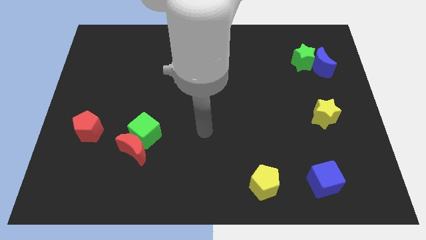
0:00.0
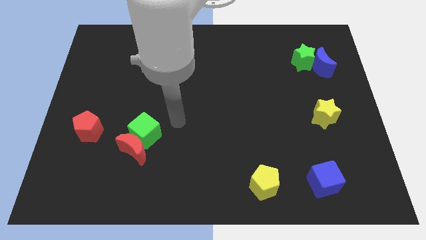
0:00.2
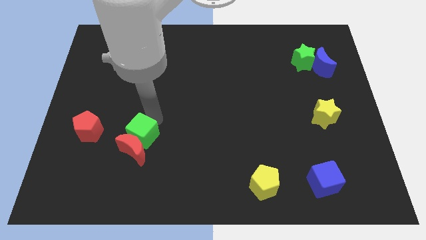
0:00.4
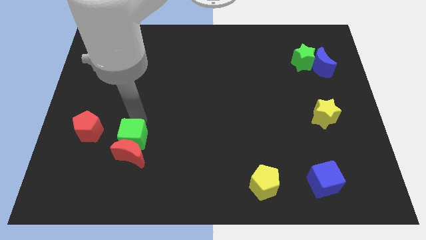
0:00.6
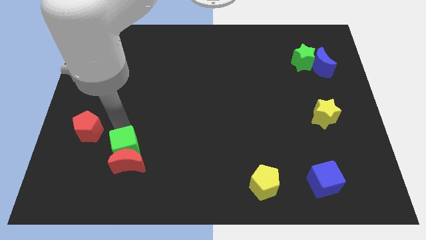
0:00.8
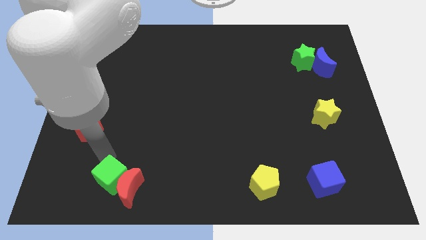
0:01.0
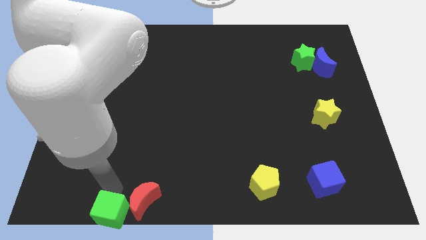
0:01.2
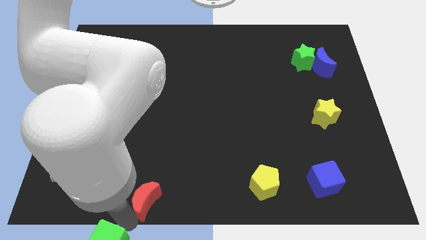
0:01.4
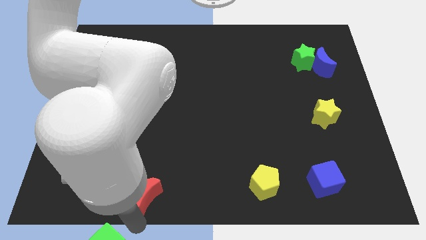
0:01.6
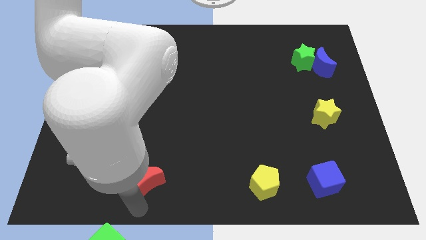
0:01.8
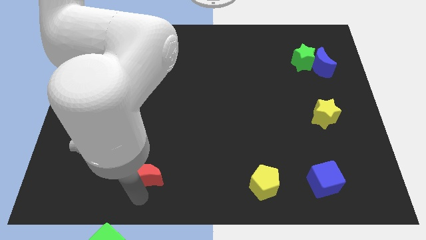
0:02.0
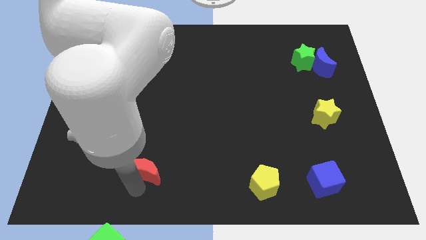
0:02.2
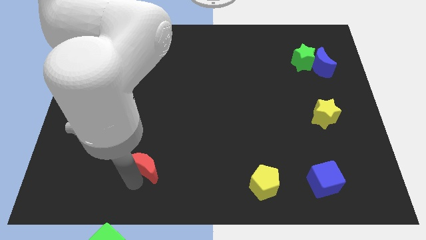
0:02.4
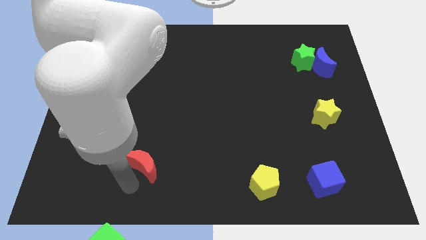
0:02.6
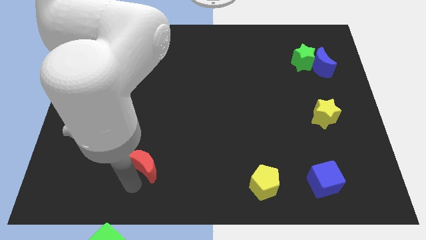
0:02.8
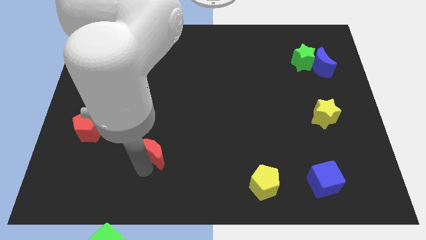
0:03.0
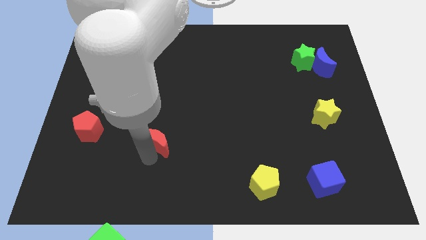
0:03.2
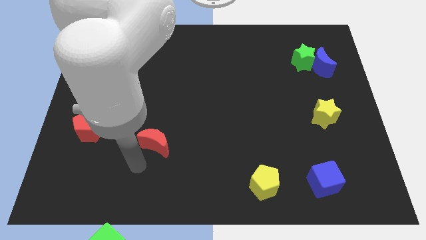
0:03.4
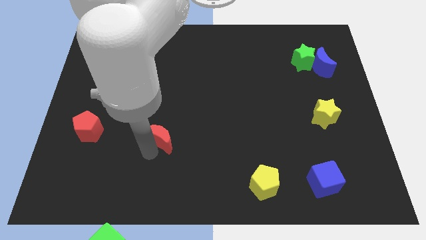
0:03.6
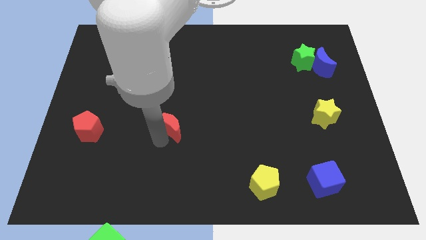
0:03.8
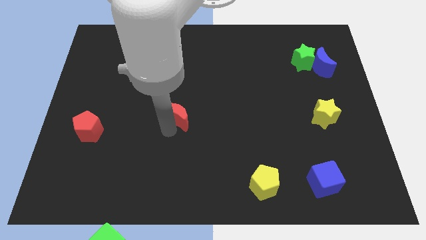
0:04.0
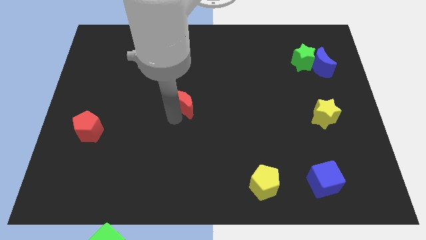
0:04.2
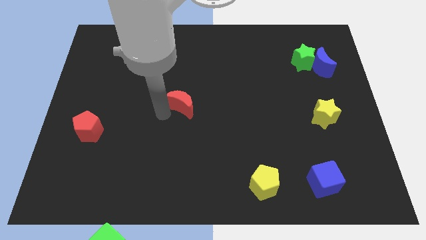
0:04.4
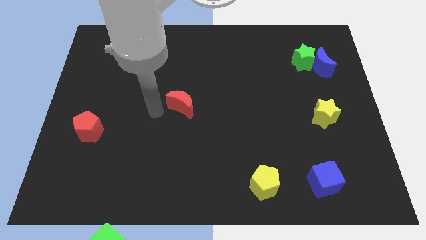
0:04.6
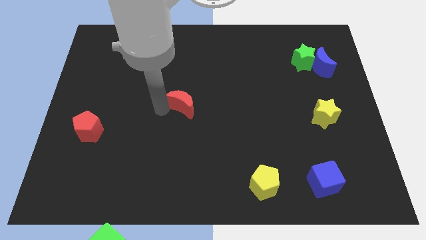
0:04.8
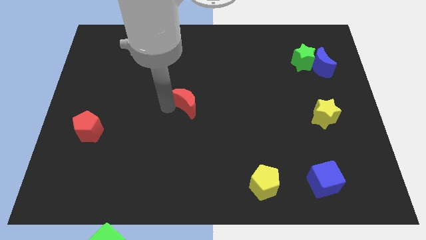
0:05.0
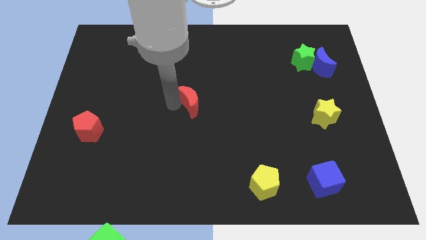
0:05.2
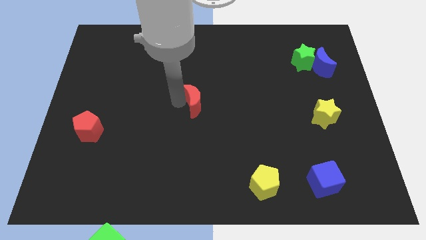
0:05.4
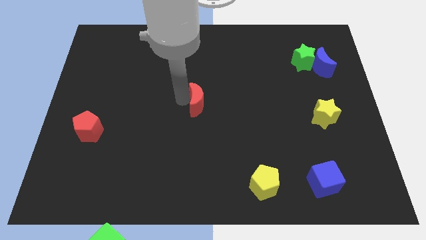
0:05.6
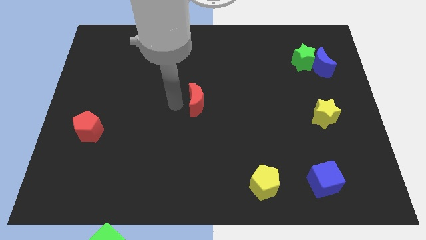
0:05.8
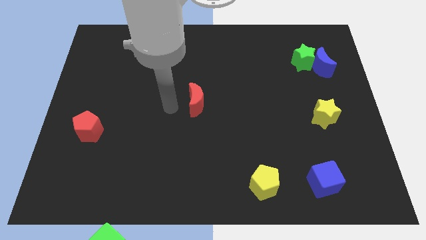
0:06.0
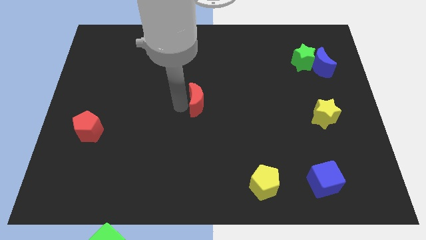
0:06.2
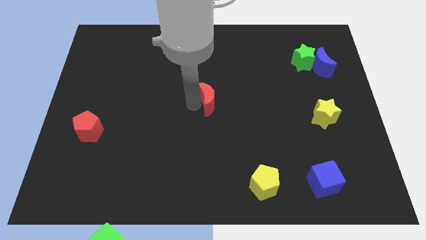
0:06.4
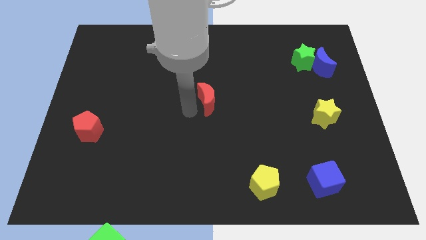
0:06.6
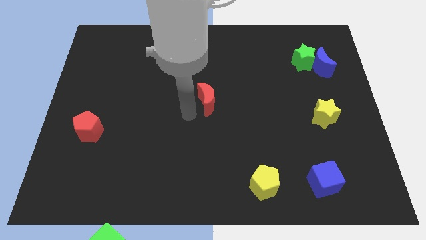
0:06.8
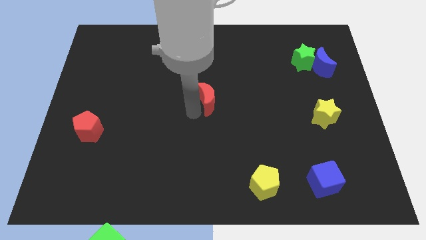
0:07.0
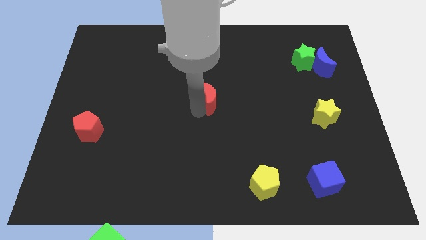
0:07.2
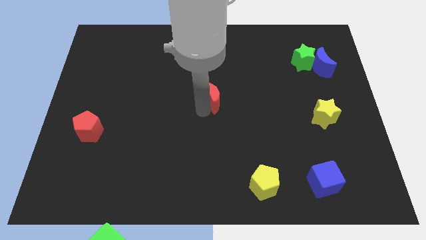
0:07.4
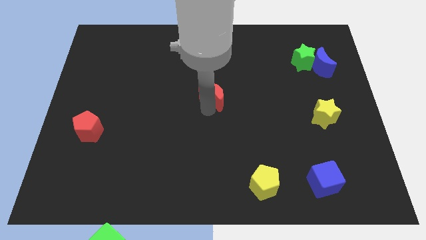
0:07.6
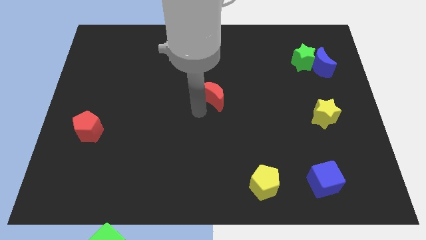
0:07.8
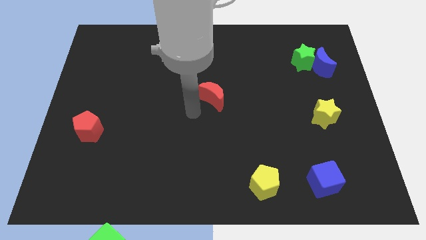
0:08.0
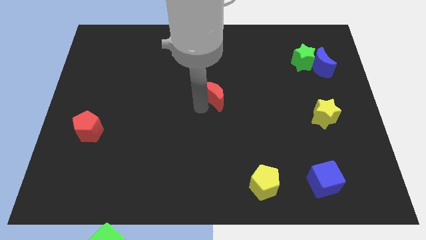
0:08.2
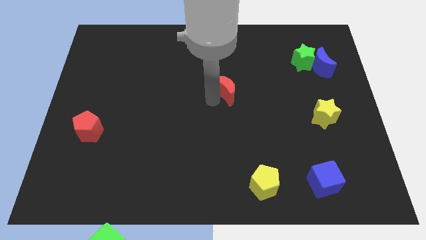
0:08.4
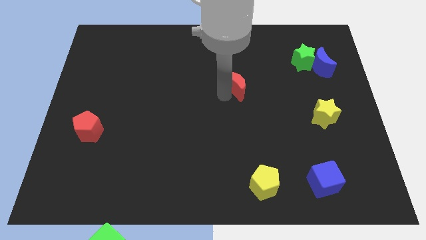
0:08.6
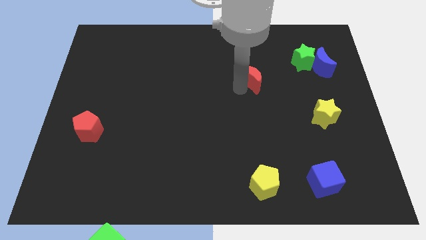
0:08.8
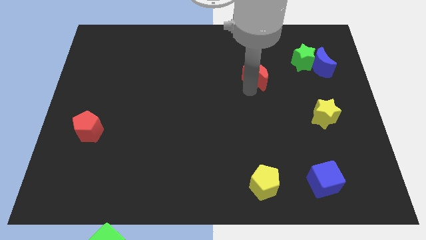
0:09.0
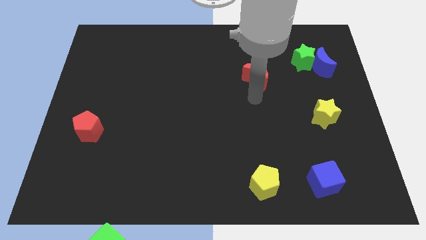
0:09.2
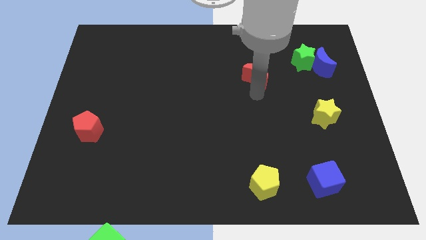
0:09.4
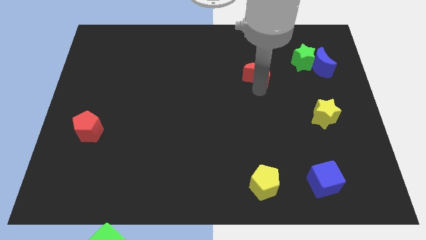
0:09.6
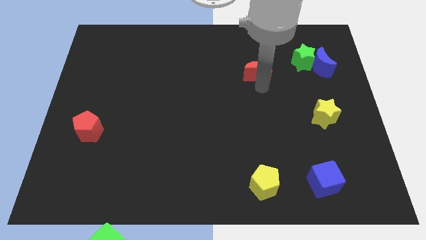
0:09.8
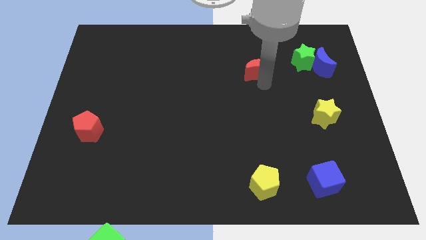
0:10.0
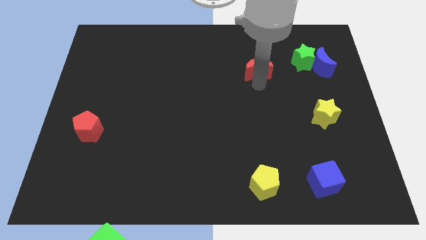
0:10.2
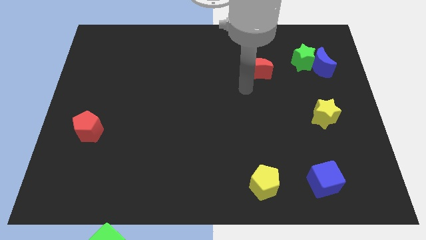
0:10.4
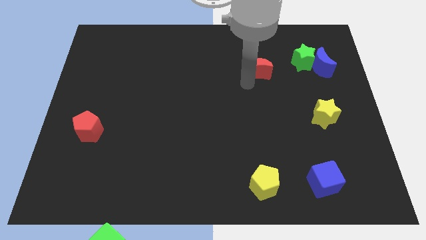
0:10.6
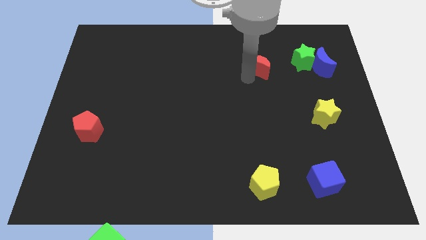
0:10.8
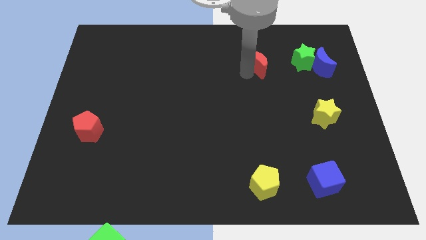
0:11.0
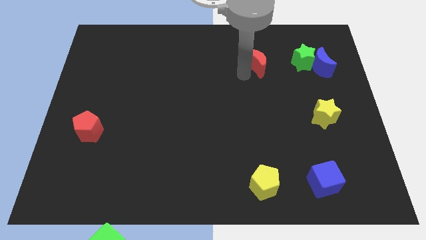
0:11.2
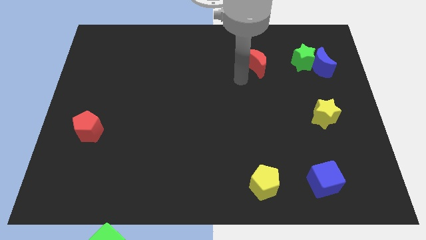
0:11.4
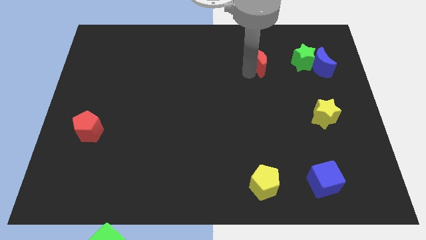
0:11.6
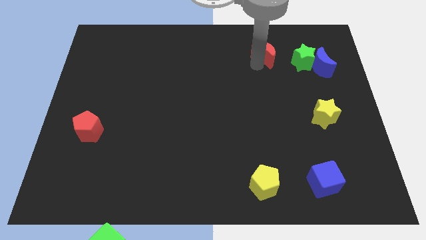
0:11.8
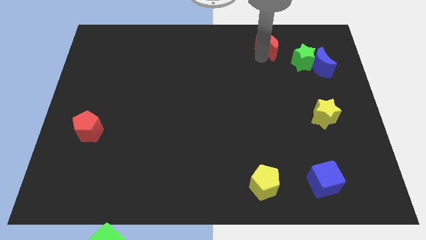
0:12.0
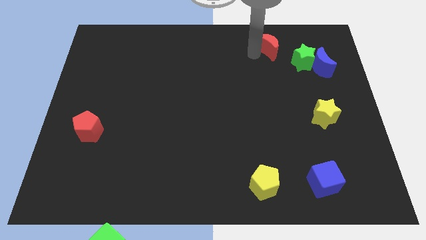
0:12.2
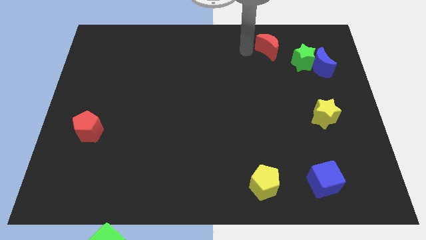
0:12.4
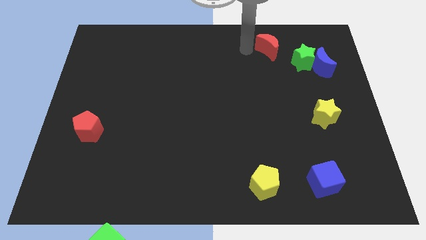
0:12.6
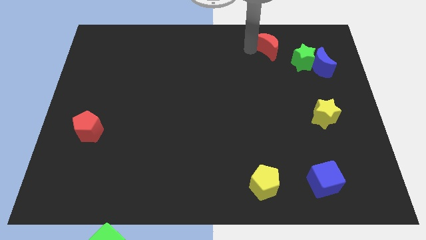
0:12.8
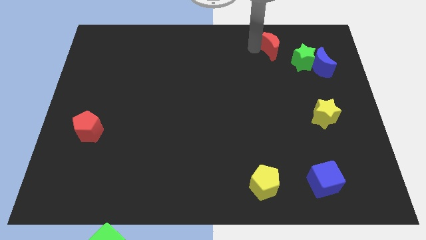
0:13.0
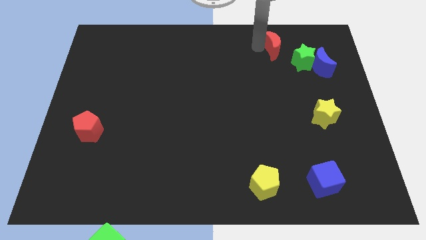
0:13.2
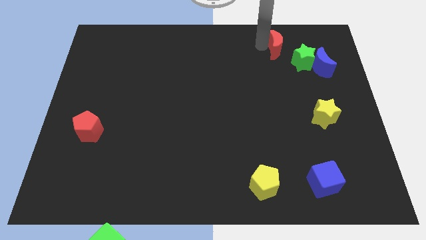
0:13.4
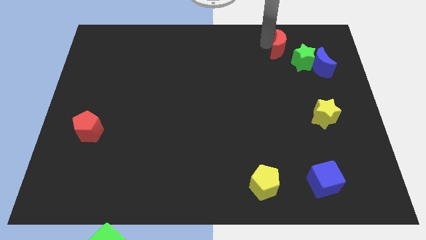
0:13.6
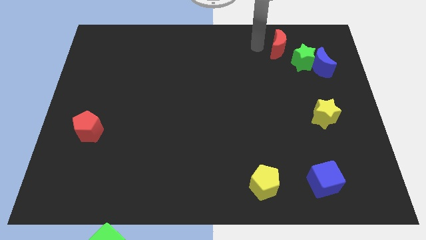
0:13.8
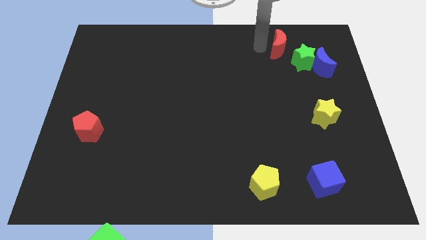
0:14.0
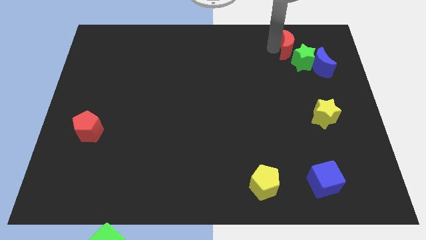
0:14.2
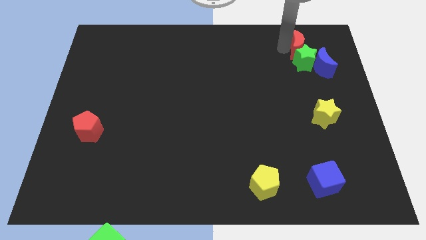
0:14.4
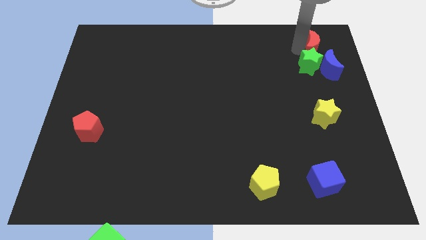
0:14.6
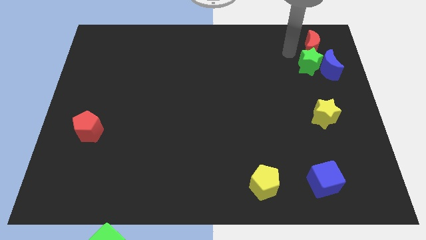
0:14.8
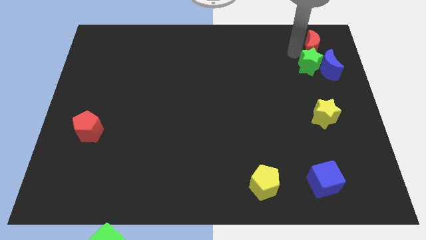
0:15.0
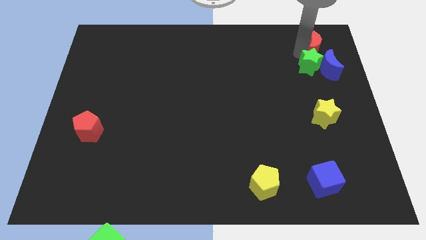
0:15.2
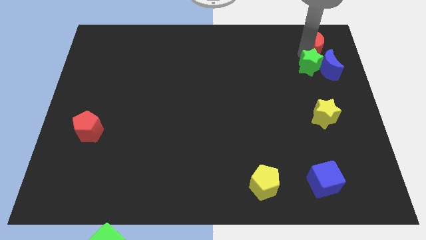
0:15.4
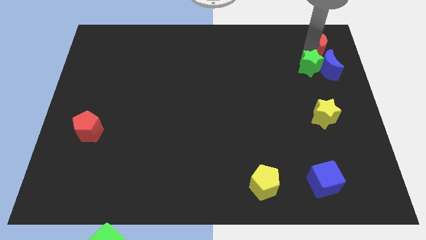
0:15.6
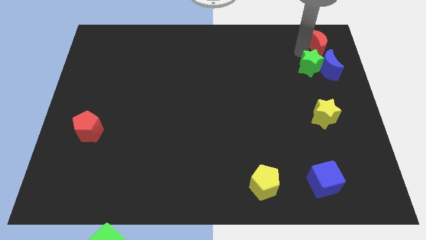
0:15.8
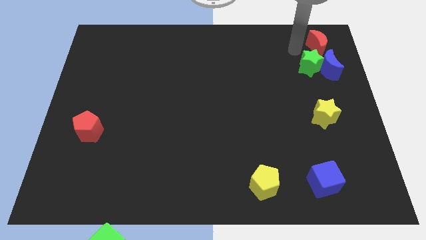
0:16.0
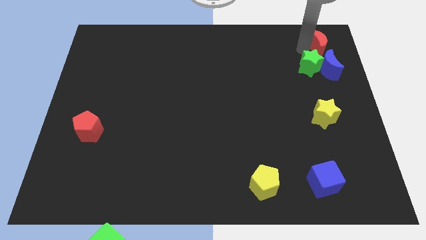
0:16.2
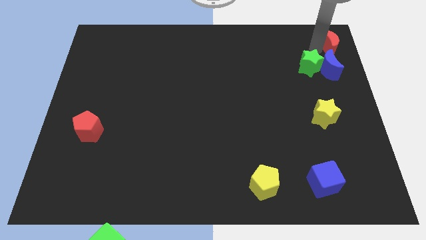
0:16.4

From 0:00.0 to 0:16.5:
slide the red moon to the top right of the board
